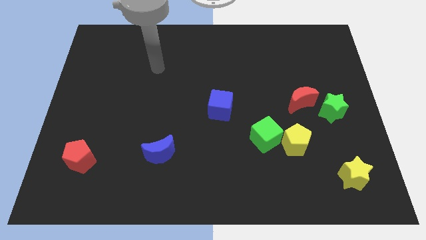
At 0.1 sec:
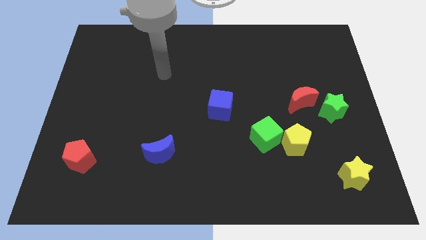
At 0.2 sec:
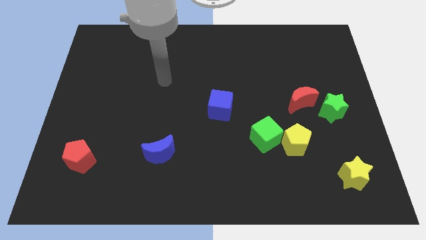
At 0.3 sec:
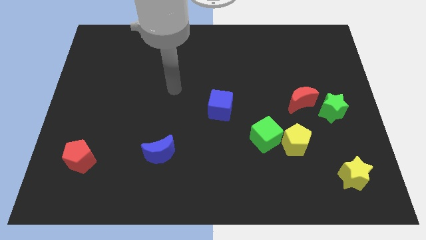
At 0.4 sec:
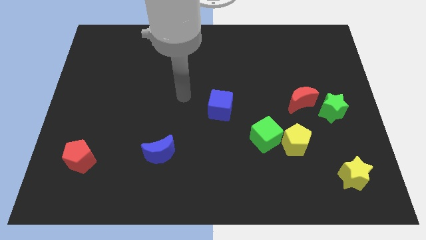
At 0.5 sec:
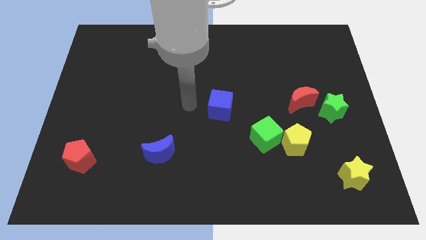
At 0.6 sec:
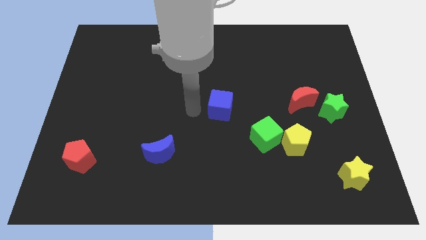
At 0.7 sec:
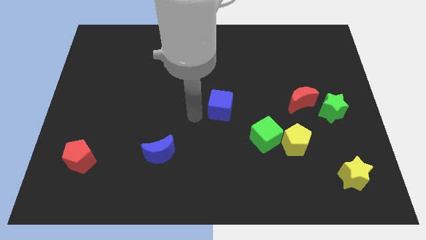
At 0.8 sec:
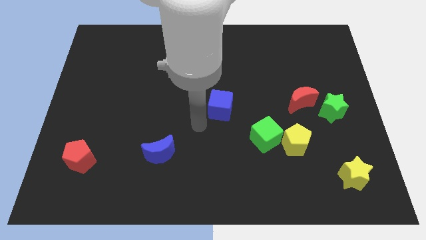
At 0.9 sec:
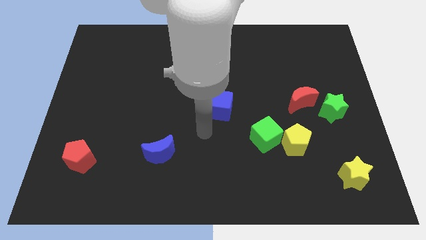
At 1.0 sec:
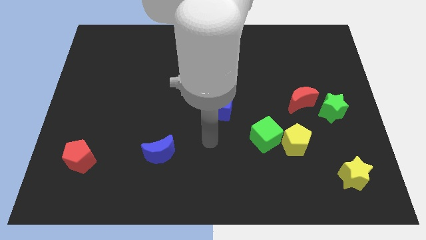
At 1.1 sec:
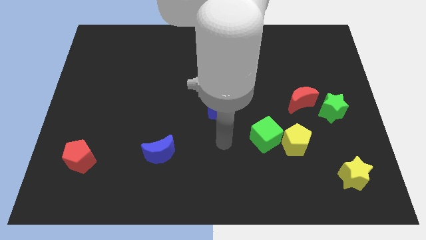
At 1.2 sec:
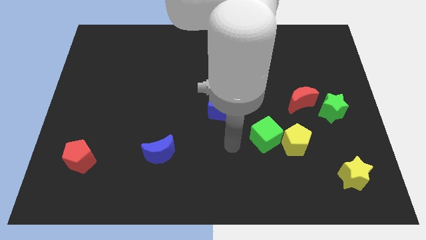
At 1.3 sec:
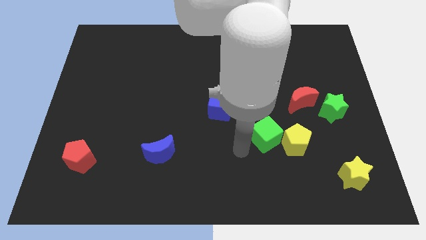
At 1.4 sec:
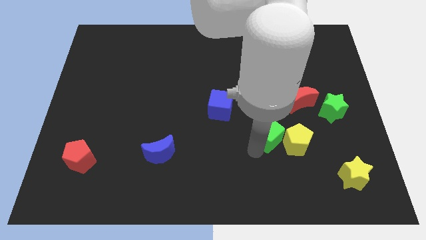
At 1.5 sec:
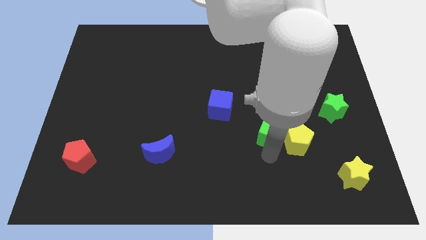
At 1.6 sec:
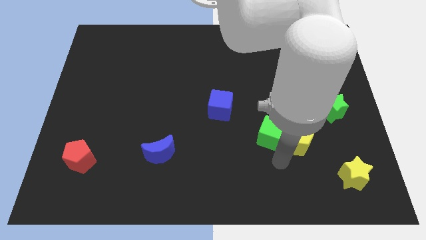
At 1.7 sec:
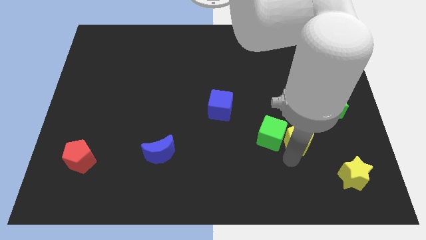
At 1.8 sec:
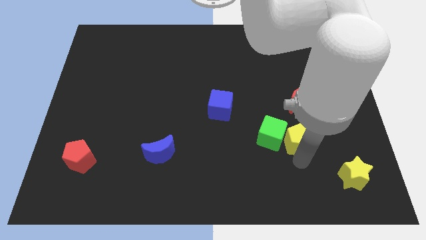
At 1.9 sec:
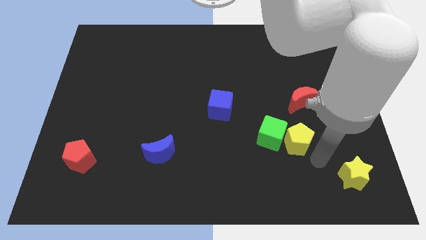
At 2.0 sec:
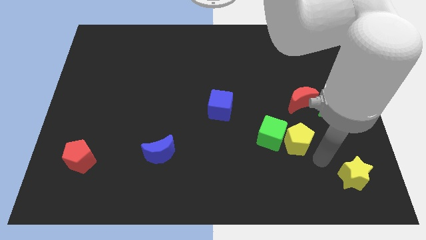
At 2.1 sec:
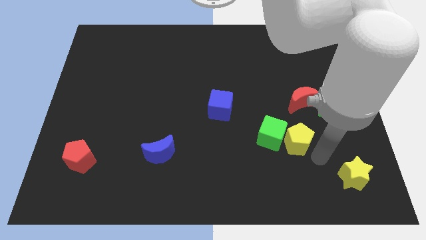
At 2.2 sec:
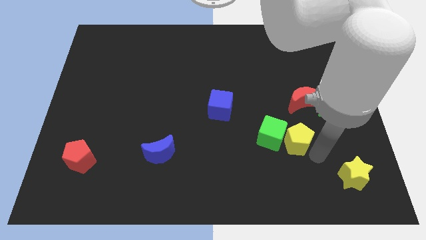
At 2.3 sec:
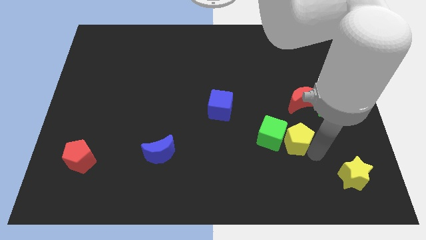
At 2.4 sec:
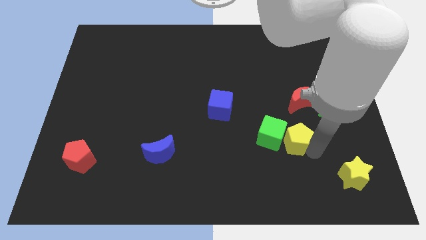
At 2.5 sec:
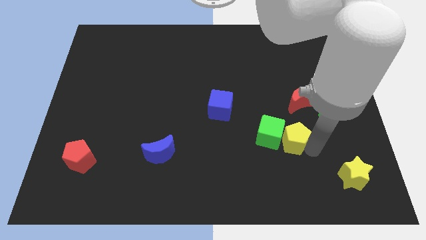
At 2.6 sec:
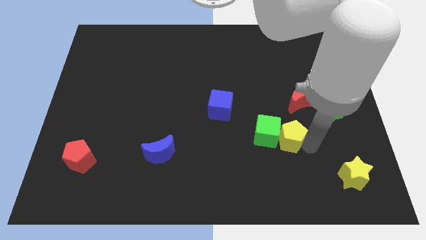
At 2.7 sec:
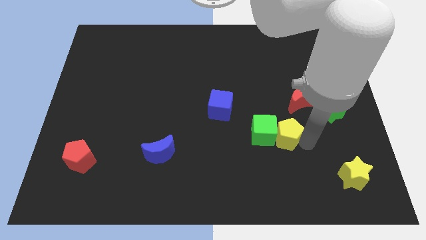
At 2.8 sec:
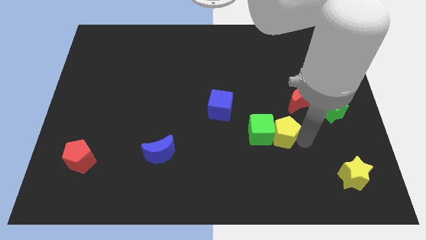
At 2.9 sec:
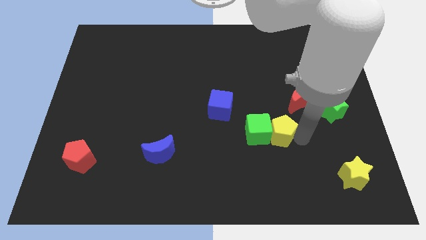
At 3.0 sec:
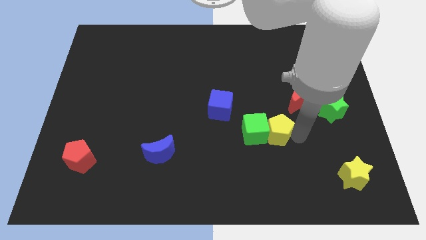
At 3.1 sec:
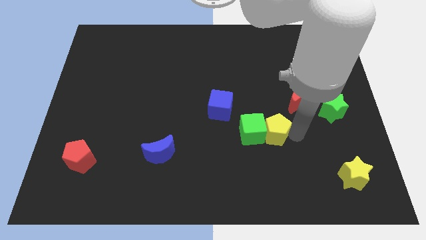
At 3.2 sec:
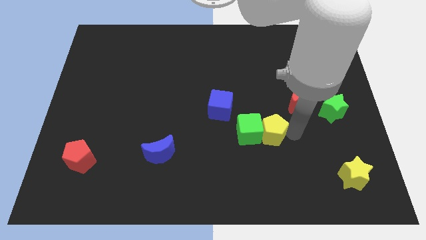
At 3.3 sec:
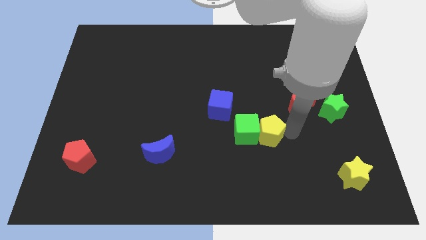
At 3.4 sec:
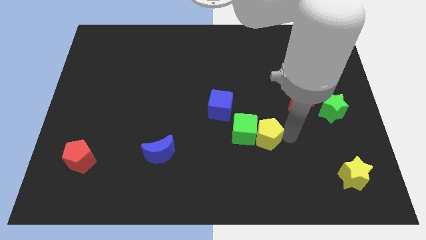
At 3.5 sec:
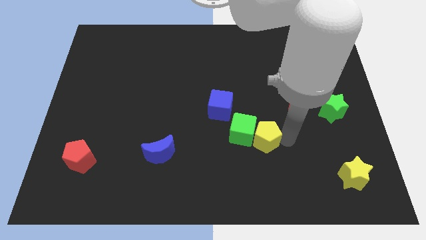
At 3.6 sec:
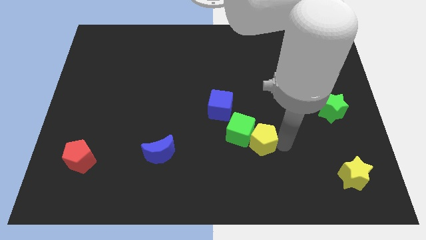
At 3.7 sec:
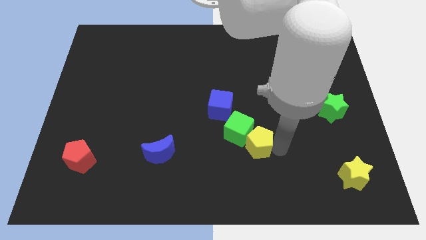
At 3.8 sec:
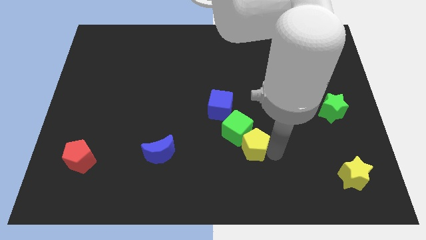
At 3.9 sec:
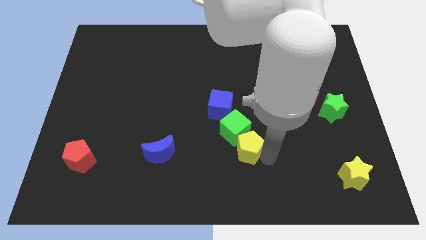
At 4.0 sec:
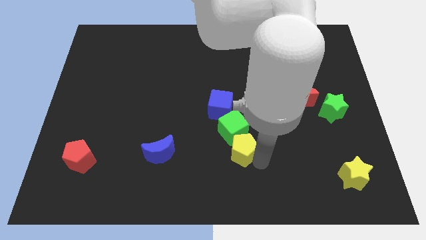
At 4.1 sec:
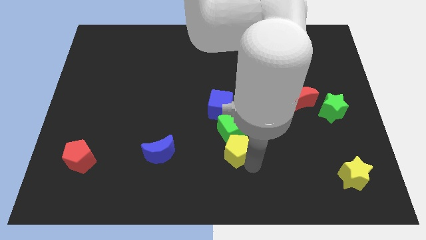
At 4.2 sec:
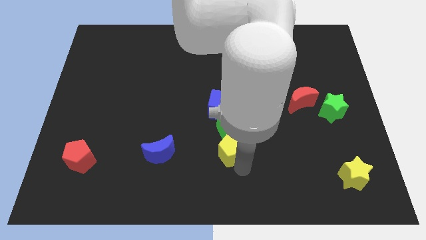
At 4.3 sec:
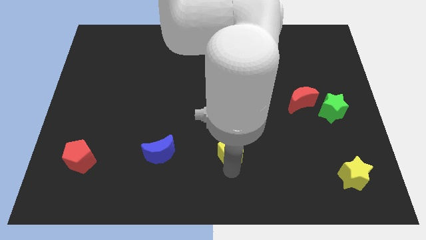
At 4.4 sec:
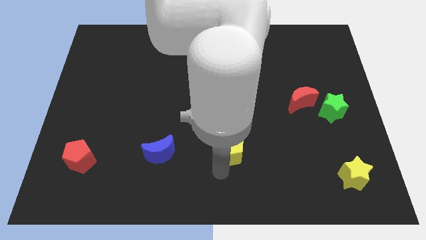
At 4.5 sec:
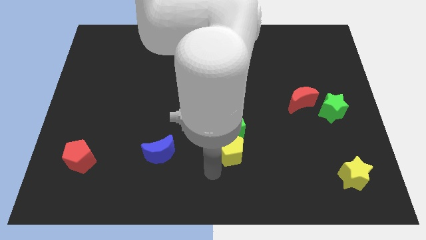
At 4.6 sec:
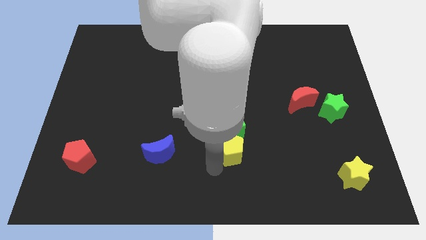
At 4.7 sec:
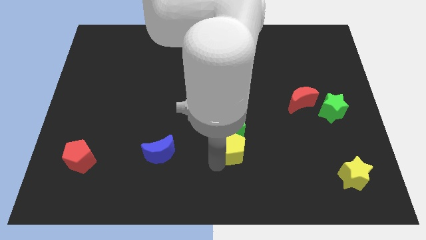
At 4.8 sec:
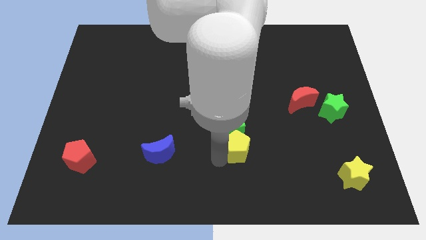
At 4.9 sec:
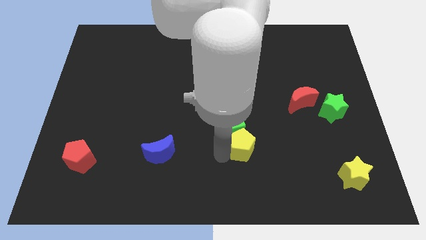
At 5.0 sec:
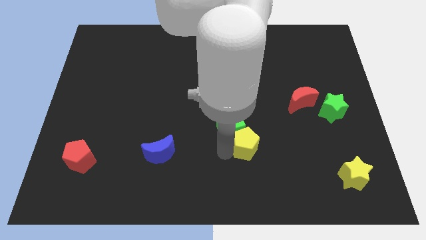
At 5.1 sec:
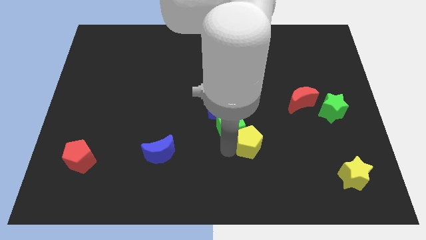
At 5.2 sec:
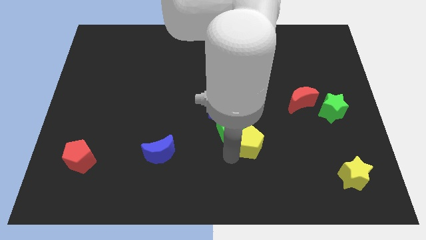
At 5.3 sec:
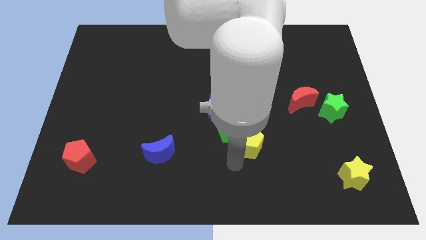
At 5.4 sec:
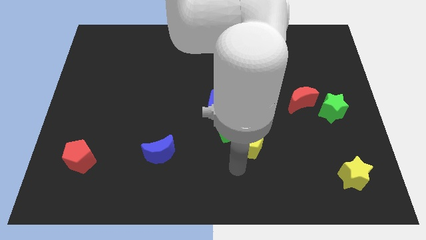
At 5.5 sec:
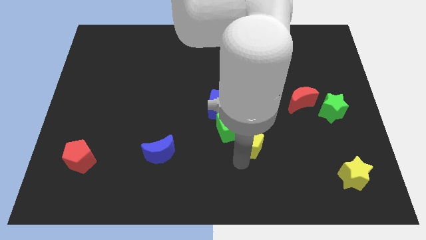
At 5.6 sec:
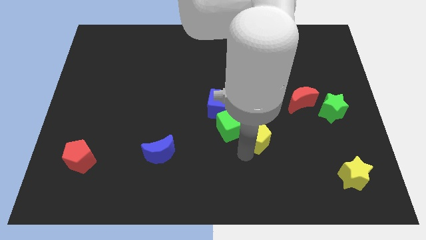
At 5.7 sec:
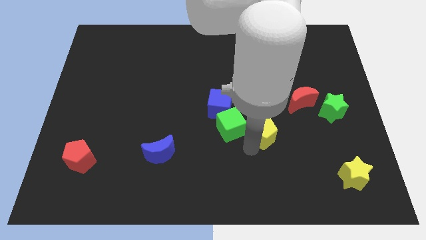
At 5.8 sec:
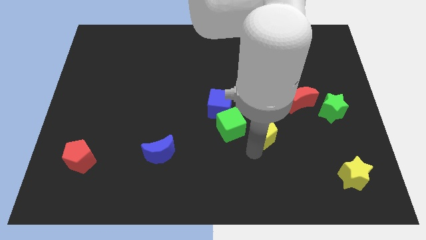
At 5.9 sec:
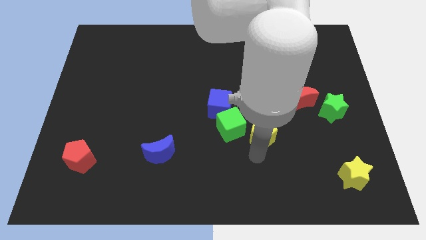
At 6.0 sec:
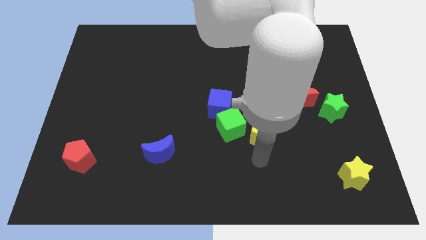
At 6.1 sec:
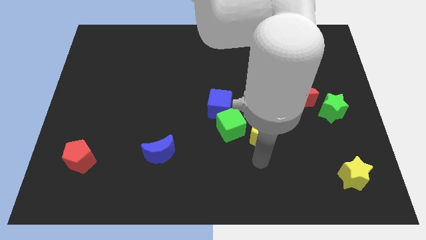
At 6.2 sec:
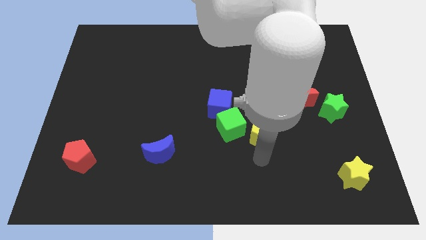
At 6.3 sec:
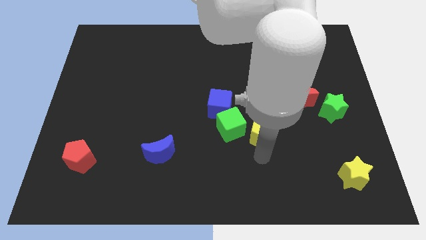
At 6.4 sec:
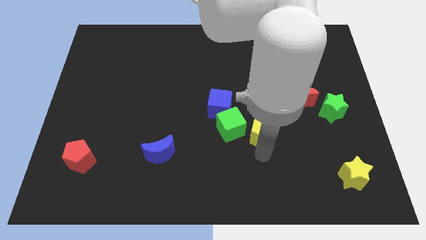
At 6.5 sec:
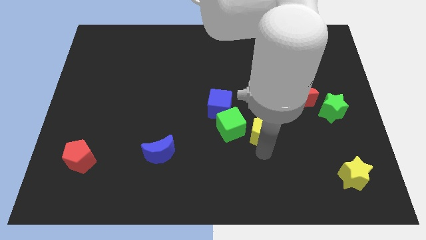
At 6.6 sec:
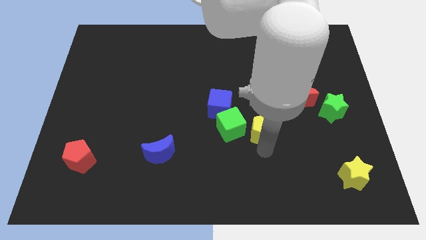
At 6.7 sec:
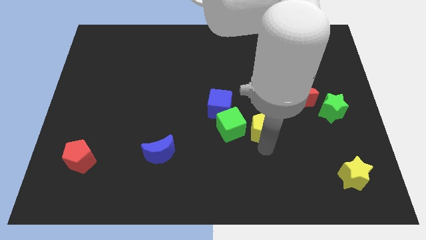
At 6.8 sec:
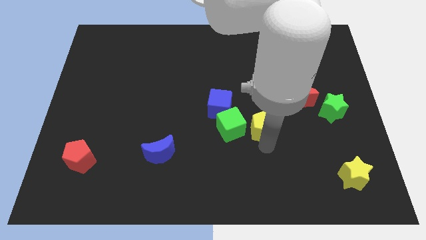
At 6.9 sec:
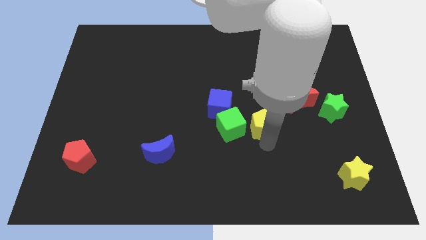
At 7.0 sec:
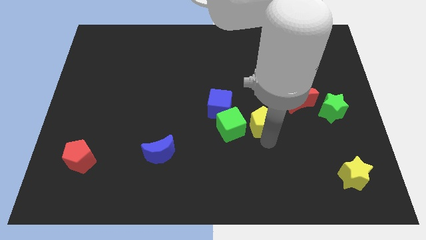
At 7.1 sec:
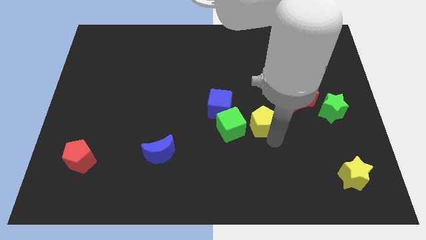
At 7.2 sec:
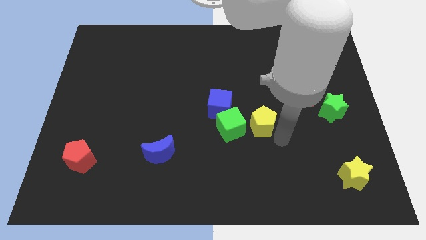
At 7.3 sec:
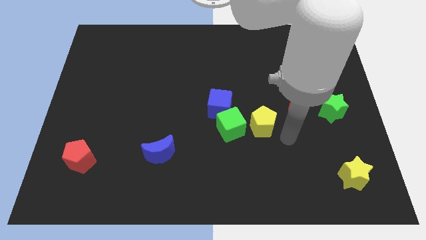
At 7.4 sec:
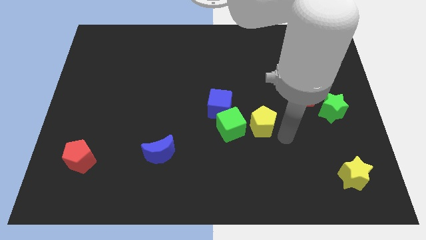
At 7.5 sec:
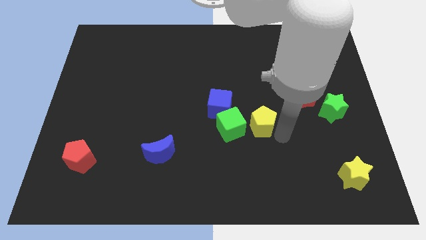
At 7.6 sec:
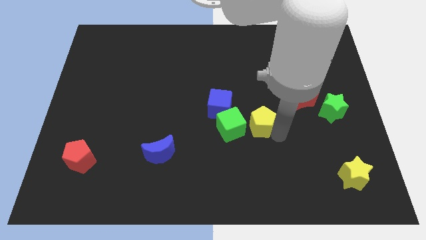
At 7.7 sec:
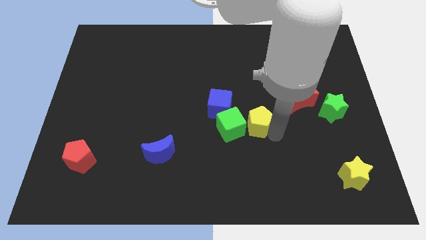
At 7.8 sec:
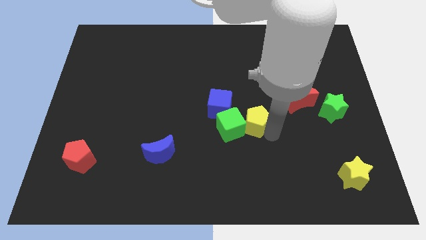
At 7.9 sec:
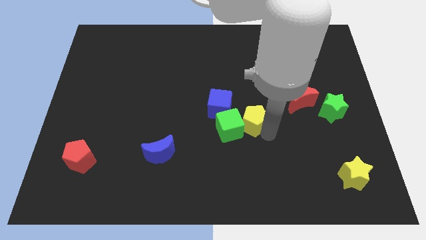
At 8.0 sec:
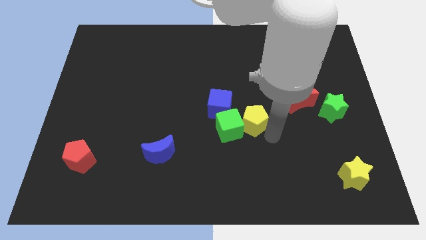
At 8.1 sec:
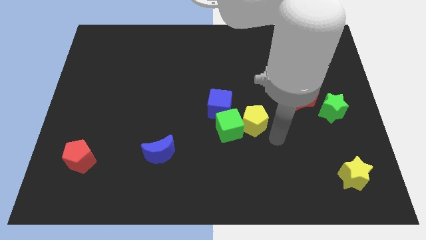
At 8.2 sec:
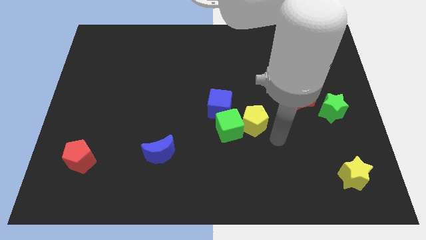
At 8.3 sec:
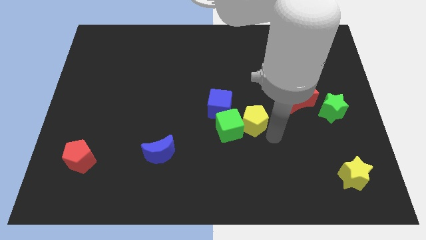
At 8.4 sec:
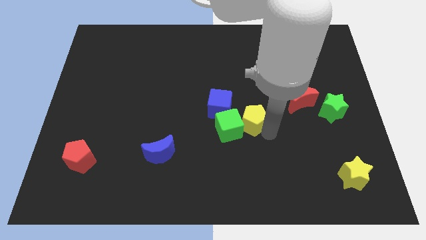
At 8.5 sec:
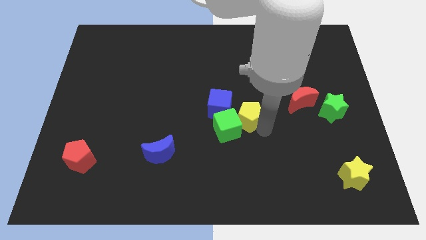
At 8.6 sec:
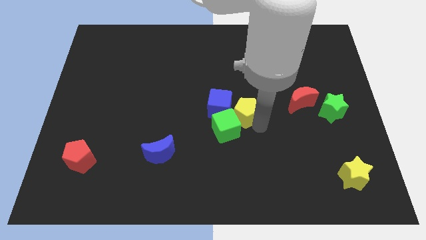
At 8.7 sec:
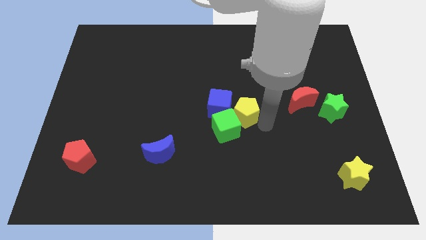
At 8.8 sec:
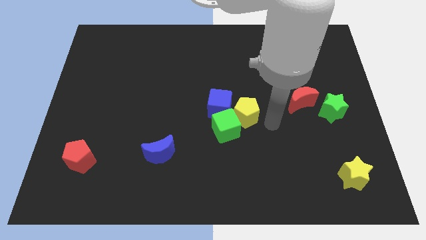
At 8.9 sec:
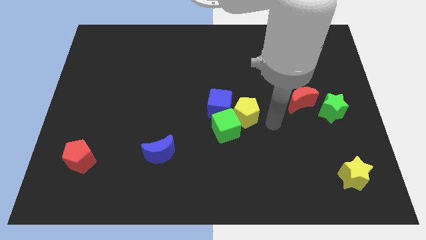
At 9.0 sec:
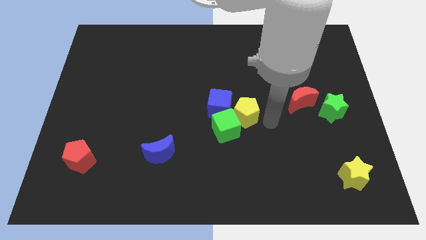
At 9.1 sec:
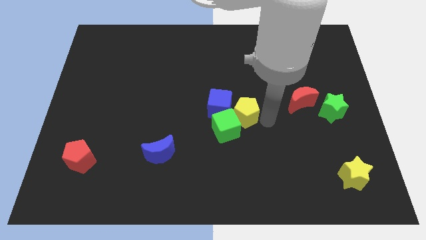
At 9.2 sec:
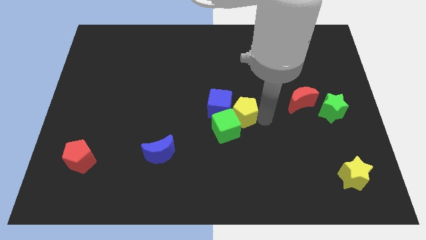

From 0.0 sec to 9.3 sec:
slide the yellow pentagon towards the blue cube
